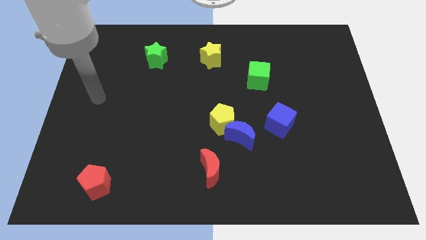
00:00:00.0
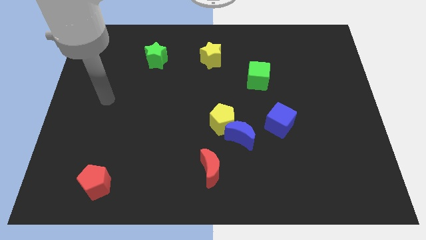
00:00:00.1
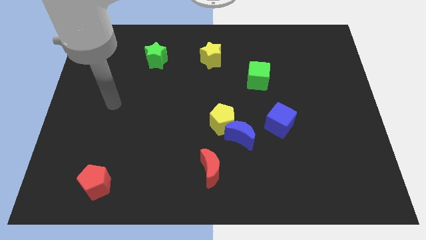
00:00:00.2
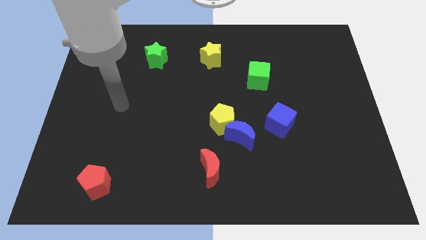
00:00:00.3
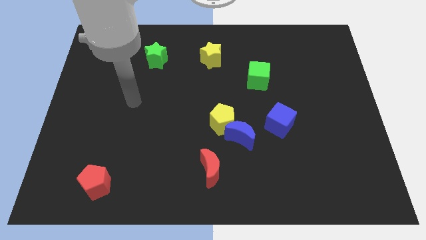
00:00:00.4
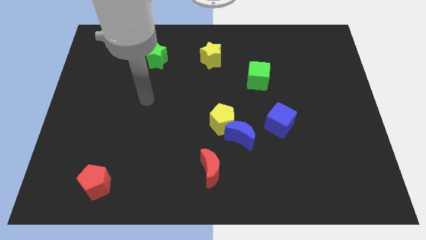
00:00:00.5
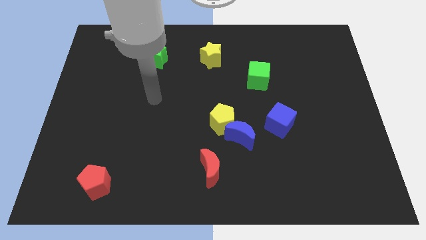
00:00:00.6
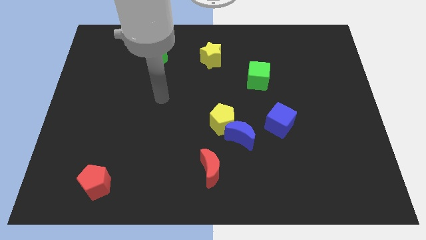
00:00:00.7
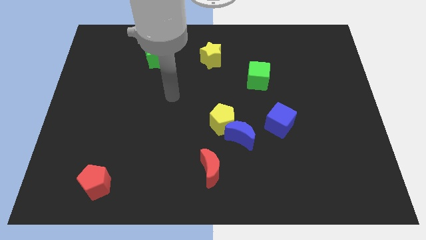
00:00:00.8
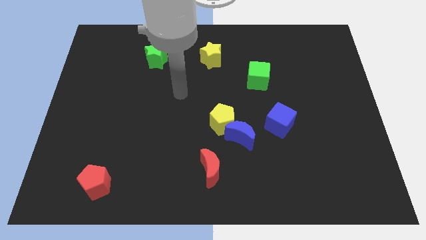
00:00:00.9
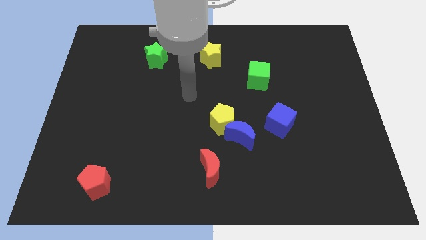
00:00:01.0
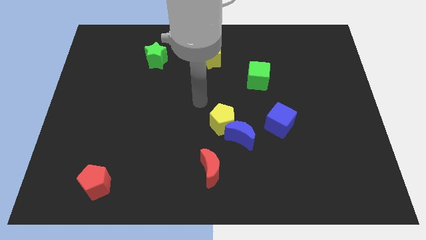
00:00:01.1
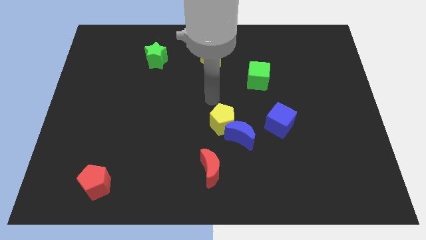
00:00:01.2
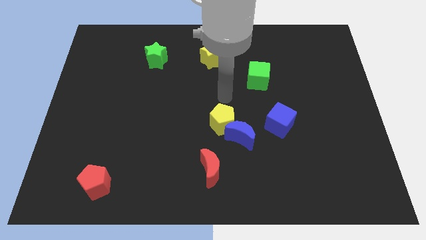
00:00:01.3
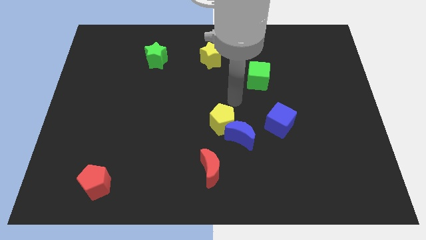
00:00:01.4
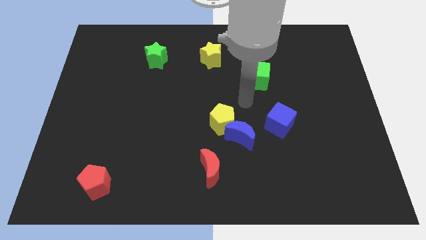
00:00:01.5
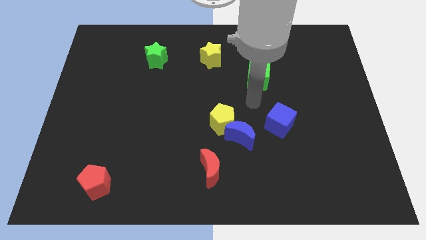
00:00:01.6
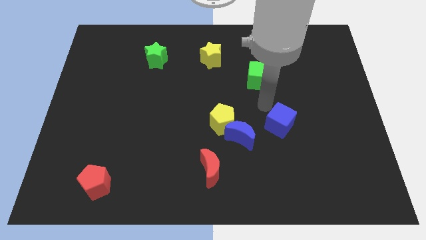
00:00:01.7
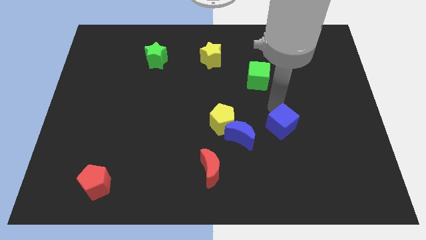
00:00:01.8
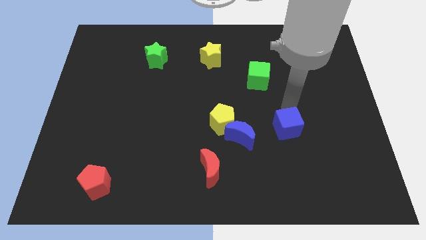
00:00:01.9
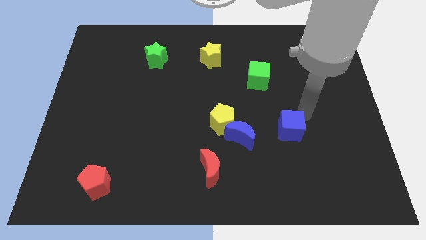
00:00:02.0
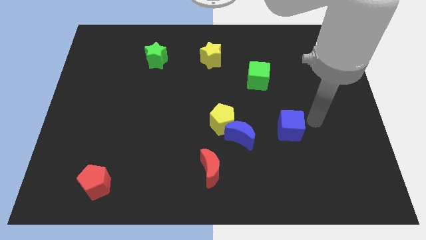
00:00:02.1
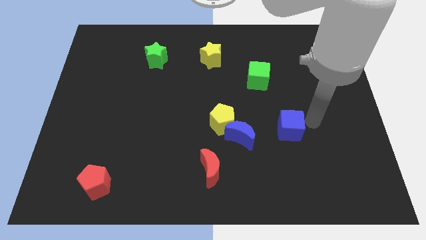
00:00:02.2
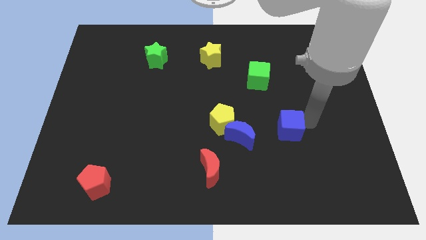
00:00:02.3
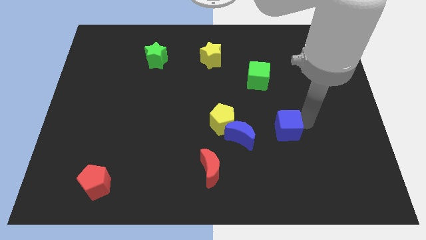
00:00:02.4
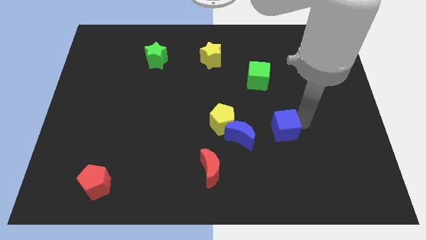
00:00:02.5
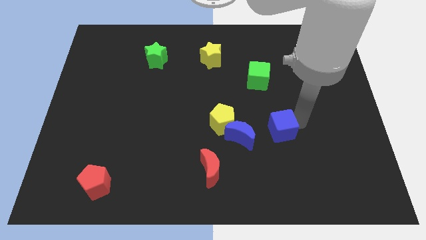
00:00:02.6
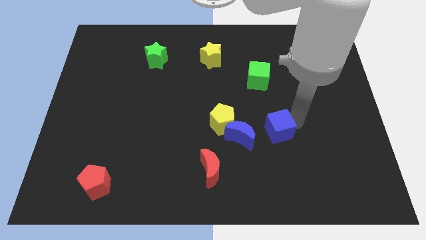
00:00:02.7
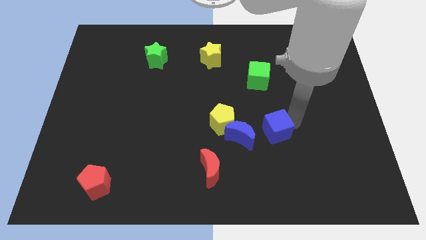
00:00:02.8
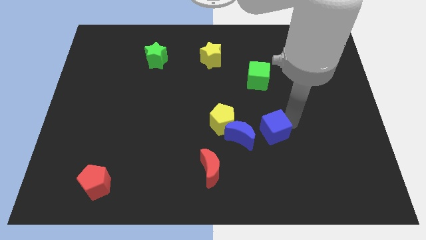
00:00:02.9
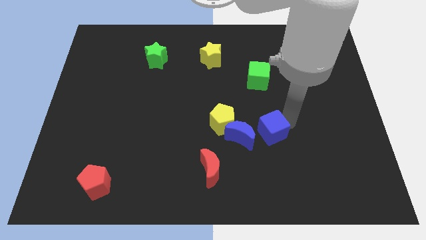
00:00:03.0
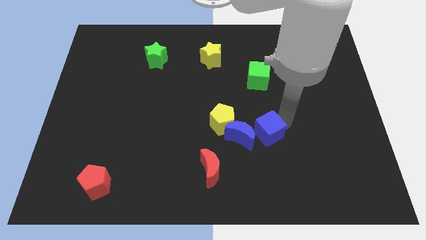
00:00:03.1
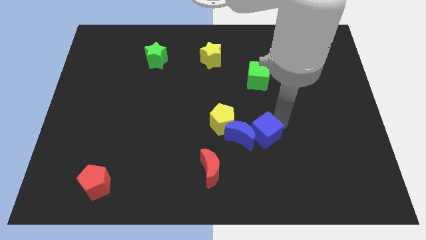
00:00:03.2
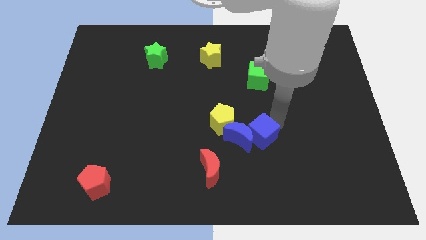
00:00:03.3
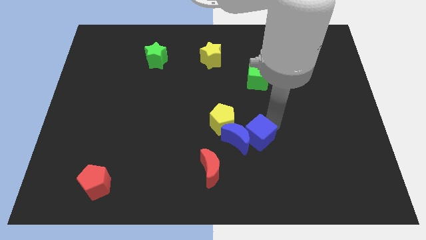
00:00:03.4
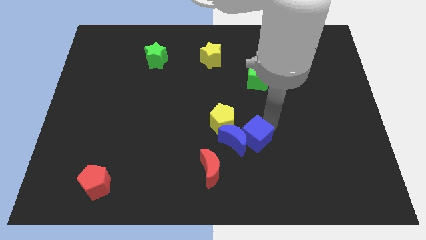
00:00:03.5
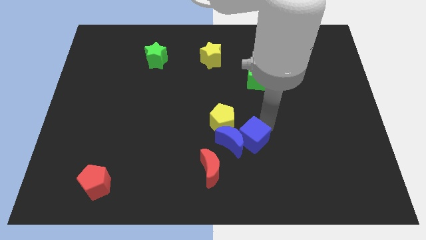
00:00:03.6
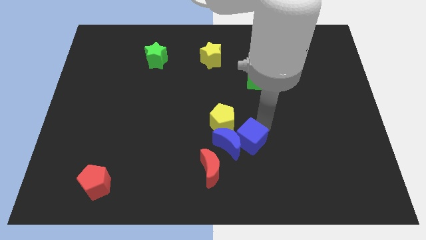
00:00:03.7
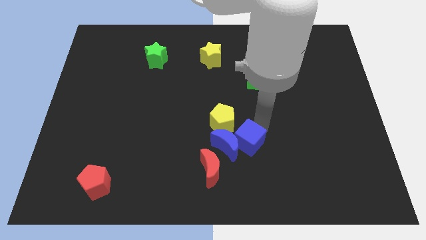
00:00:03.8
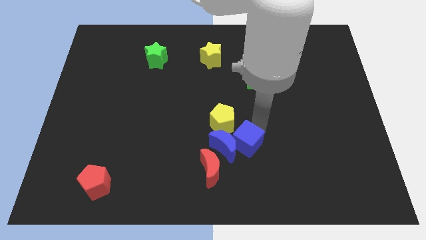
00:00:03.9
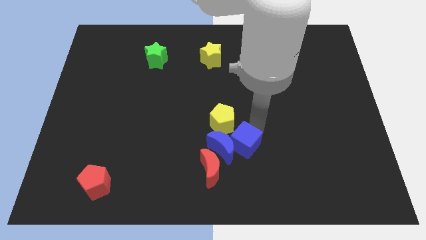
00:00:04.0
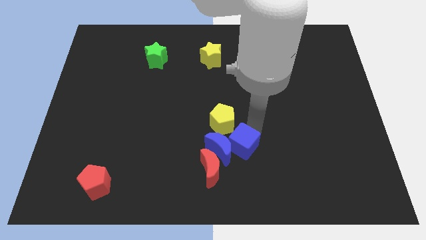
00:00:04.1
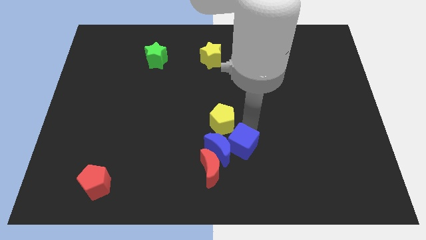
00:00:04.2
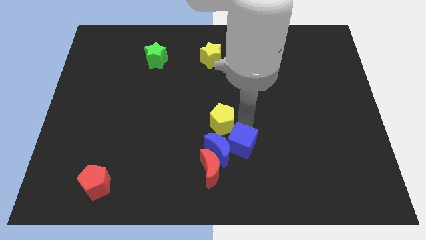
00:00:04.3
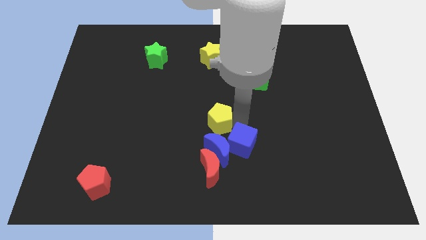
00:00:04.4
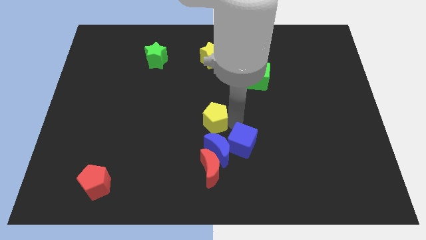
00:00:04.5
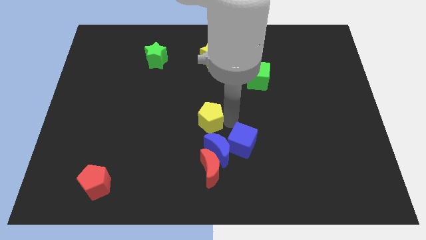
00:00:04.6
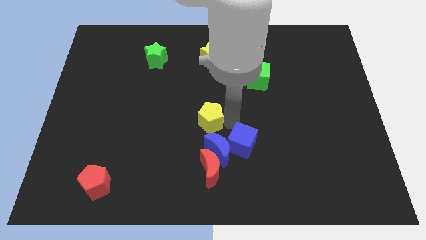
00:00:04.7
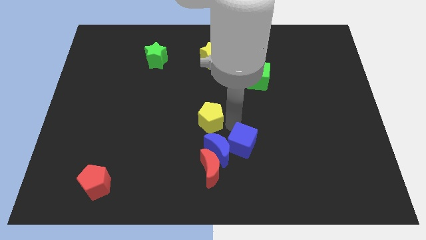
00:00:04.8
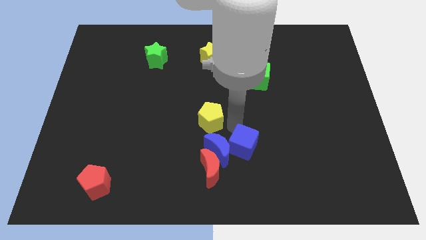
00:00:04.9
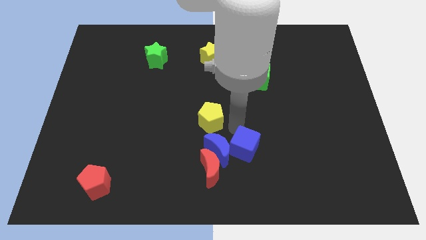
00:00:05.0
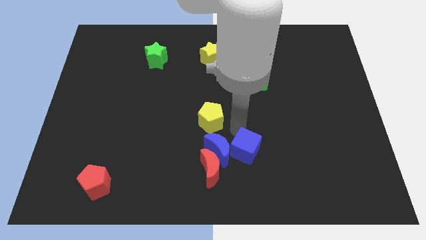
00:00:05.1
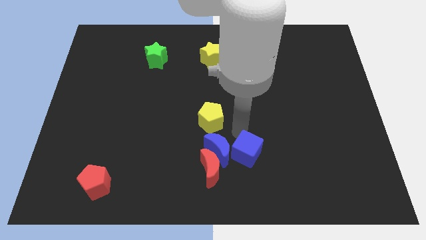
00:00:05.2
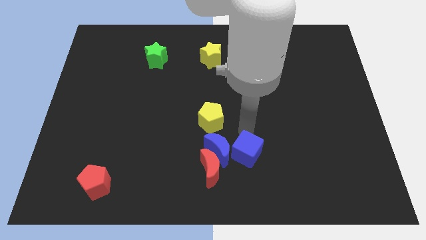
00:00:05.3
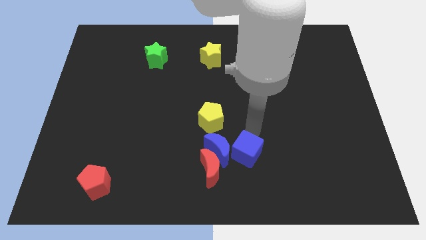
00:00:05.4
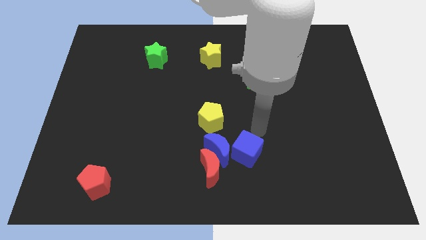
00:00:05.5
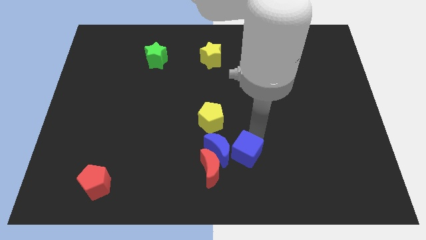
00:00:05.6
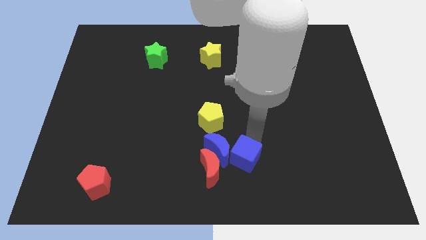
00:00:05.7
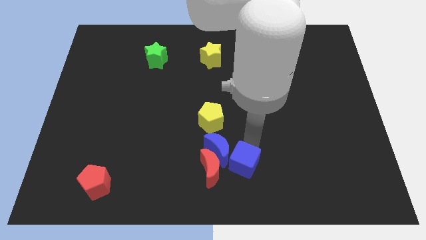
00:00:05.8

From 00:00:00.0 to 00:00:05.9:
push the blue cube to the bottom side
